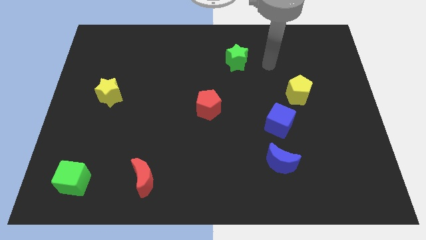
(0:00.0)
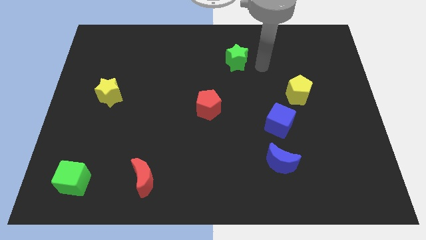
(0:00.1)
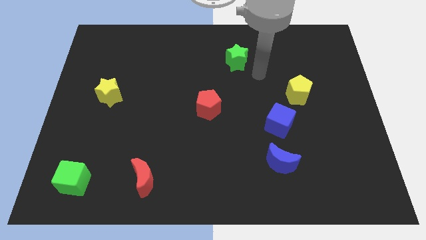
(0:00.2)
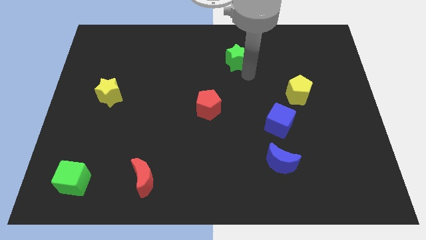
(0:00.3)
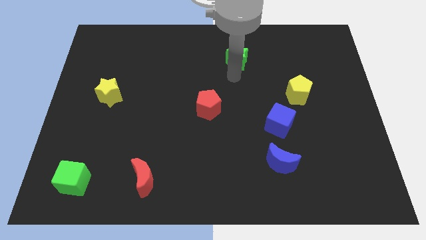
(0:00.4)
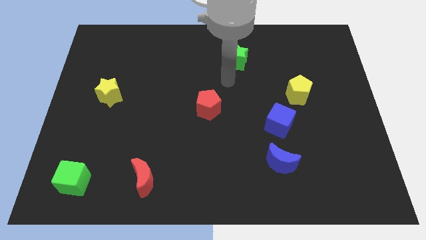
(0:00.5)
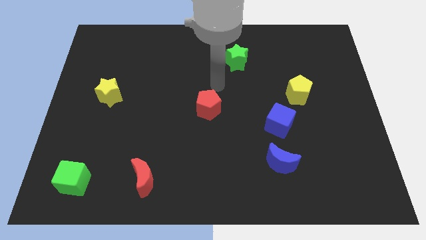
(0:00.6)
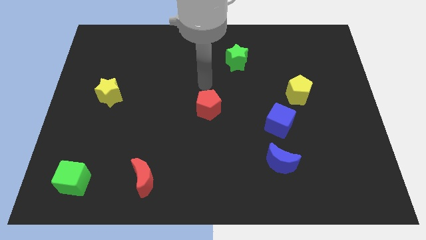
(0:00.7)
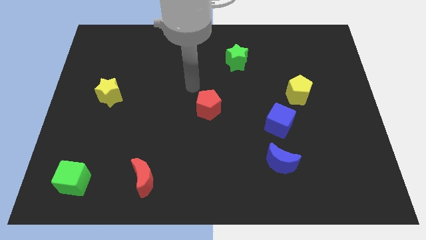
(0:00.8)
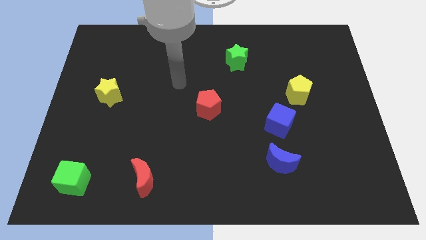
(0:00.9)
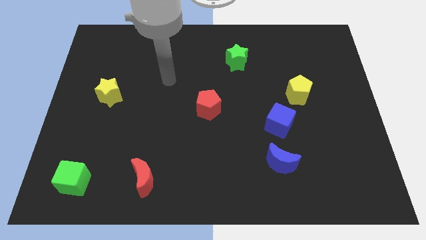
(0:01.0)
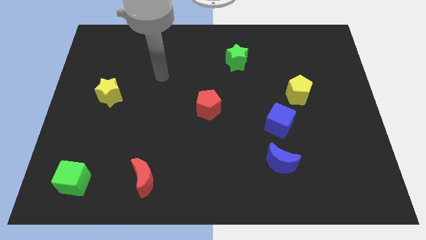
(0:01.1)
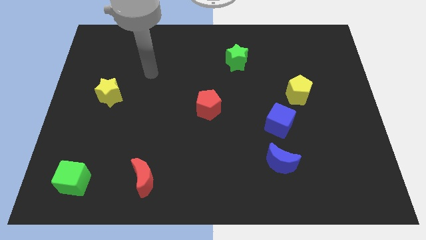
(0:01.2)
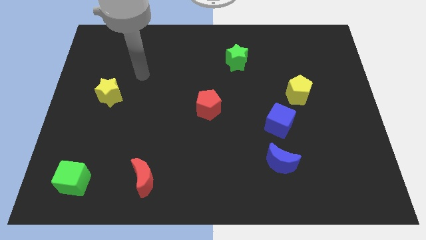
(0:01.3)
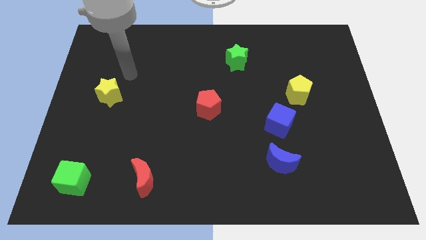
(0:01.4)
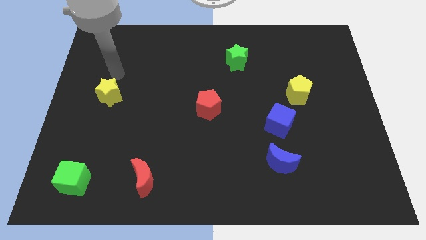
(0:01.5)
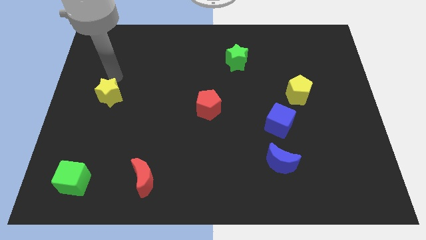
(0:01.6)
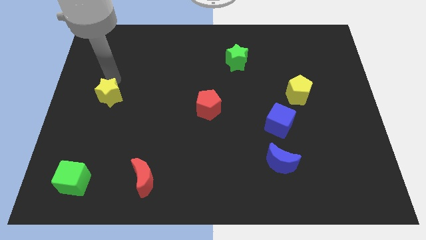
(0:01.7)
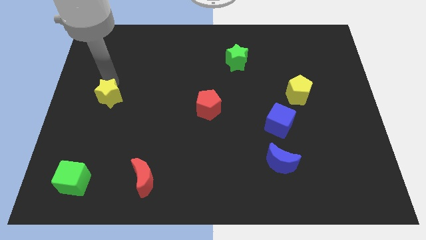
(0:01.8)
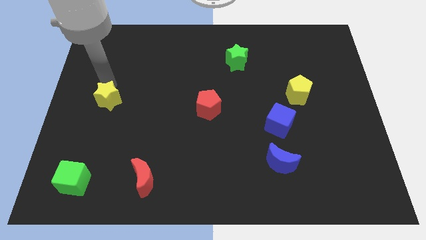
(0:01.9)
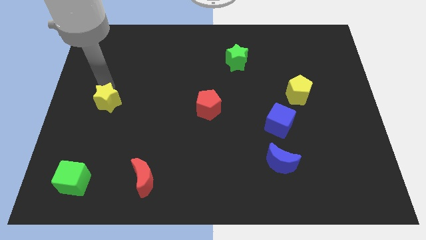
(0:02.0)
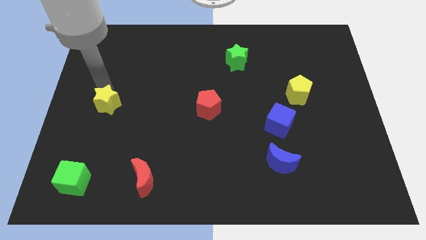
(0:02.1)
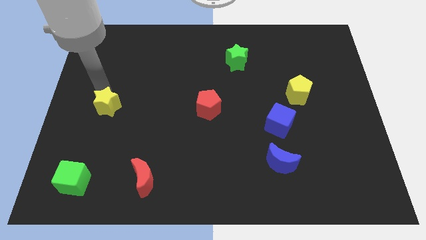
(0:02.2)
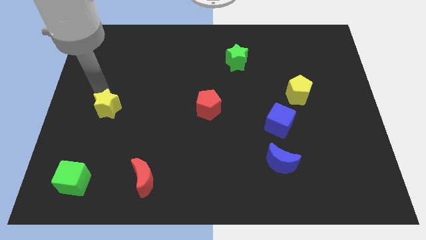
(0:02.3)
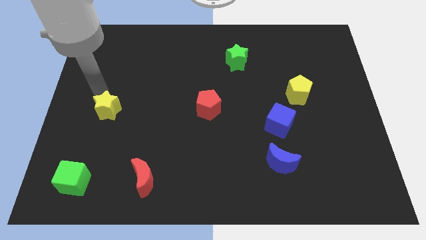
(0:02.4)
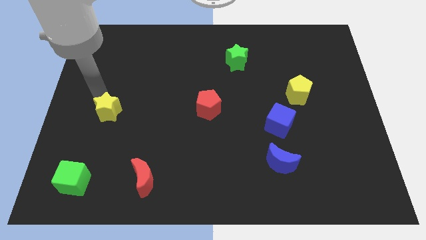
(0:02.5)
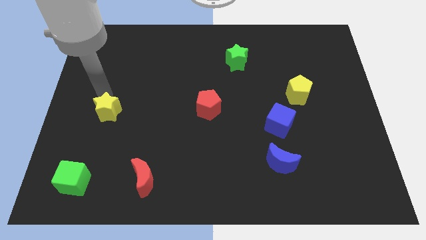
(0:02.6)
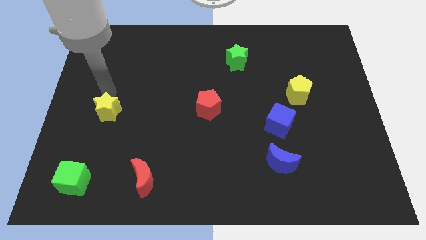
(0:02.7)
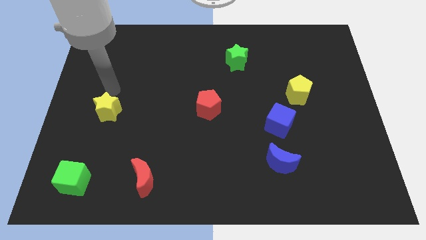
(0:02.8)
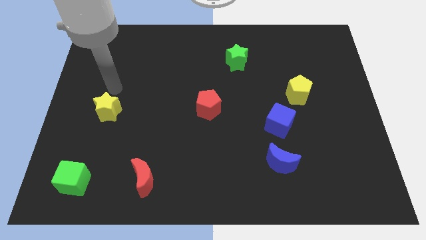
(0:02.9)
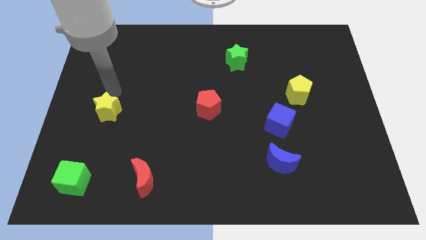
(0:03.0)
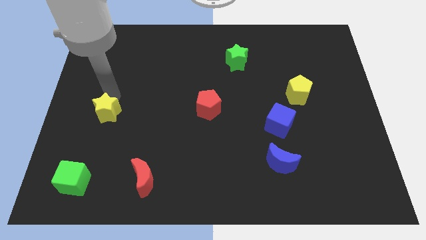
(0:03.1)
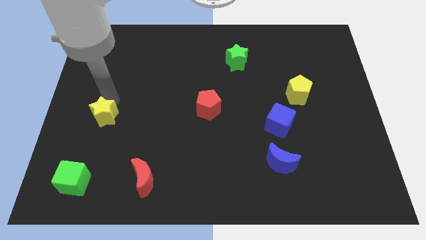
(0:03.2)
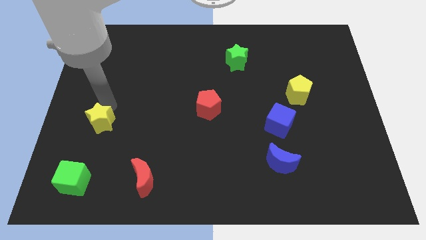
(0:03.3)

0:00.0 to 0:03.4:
slide the yellow star down a little

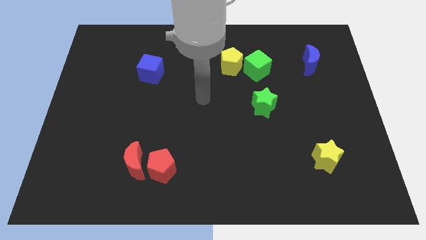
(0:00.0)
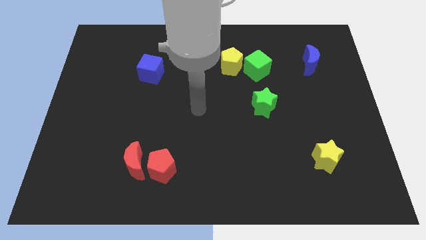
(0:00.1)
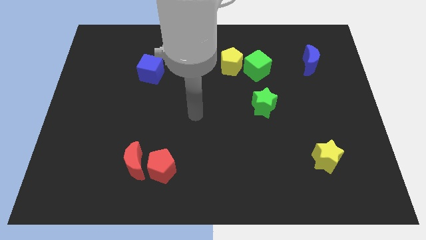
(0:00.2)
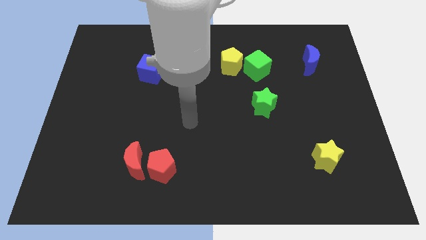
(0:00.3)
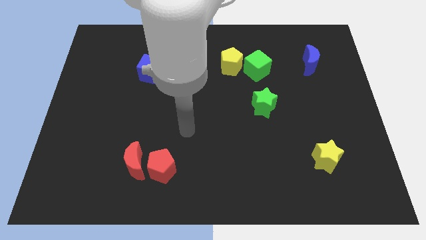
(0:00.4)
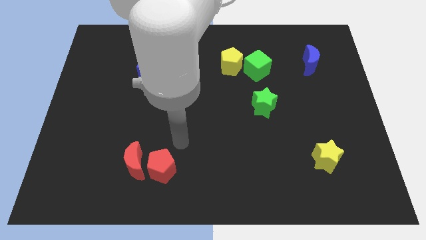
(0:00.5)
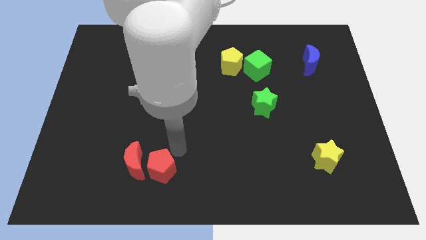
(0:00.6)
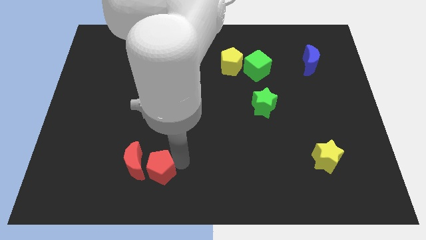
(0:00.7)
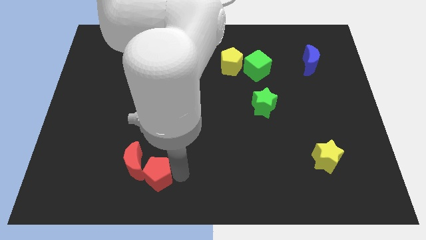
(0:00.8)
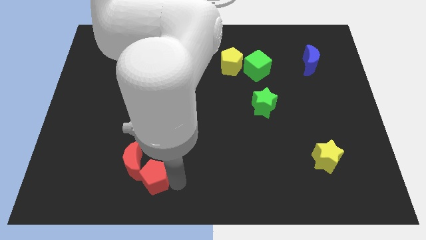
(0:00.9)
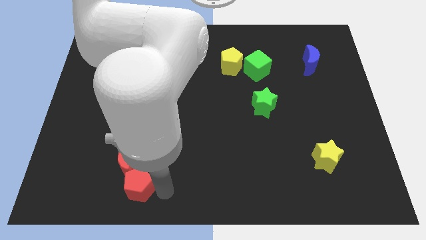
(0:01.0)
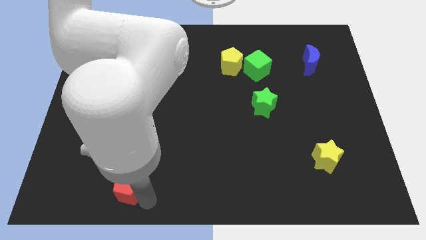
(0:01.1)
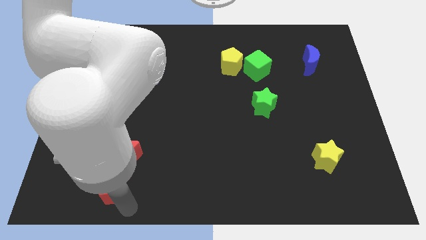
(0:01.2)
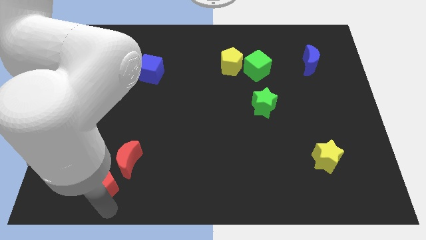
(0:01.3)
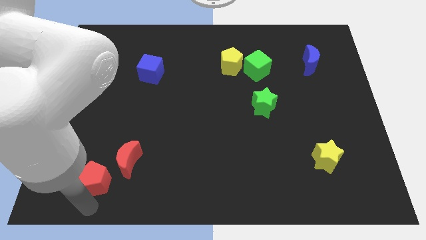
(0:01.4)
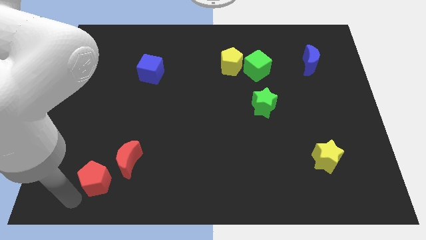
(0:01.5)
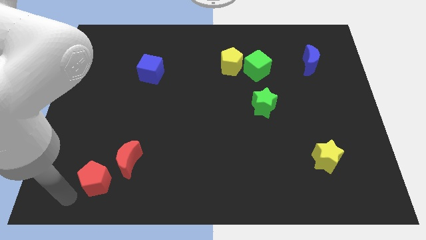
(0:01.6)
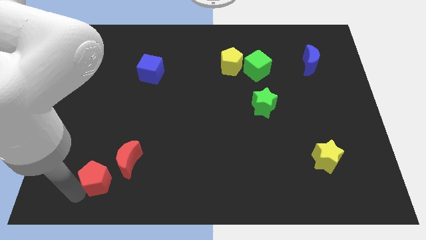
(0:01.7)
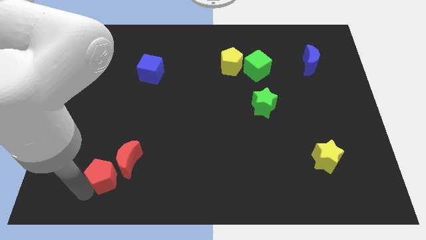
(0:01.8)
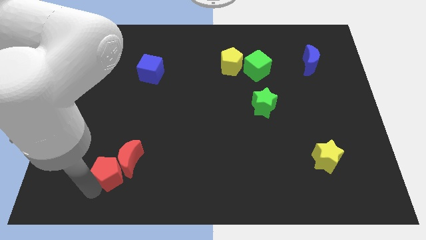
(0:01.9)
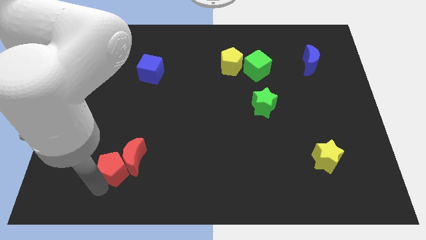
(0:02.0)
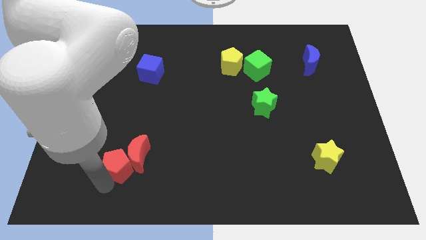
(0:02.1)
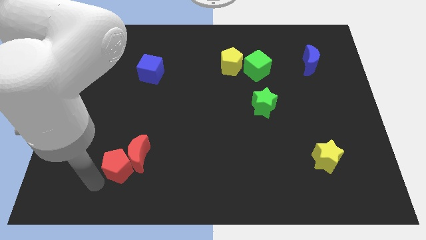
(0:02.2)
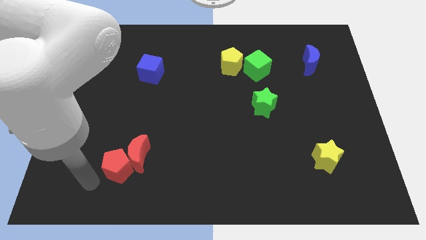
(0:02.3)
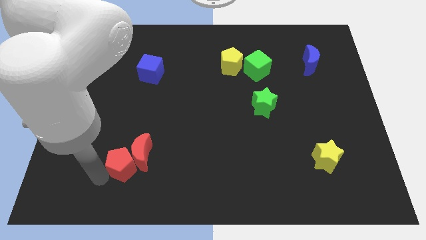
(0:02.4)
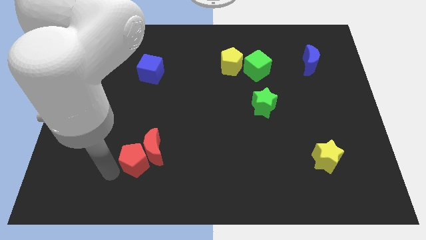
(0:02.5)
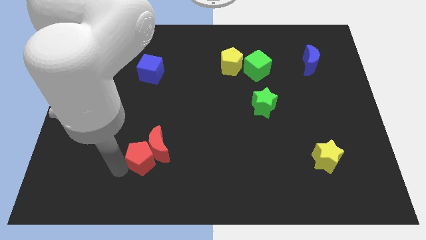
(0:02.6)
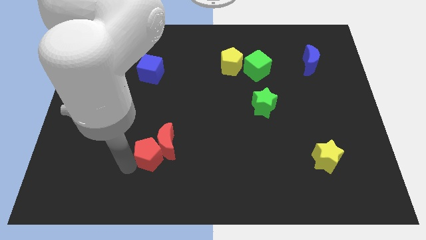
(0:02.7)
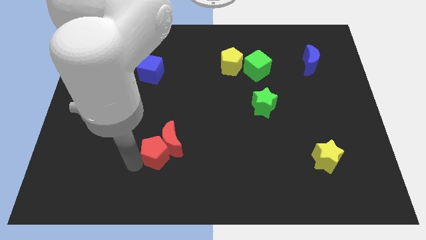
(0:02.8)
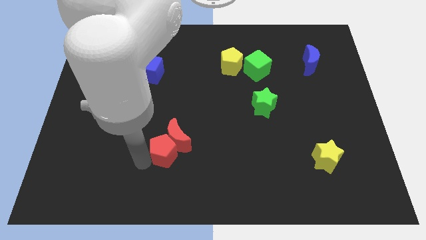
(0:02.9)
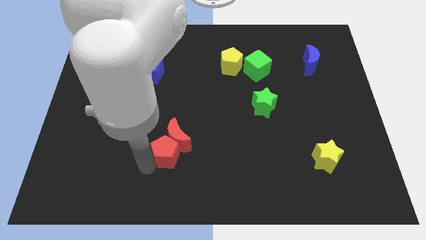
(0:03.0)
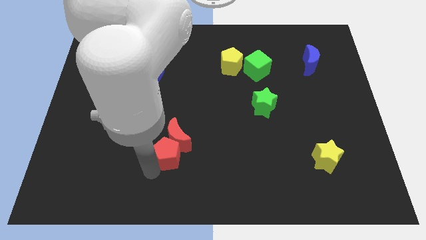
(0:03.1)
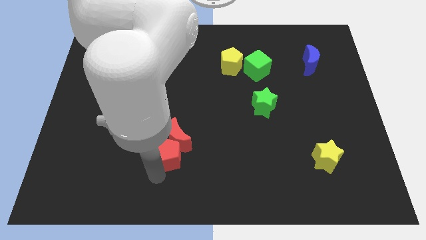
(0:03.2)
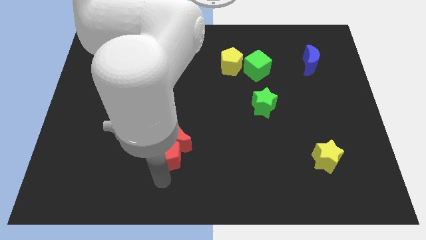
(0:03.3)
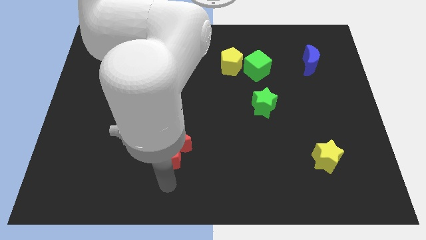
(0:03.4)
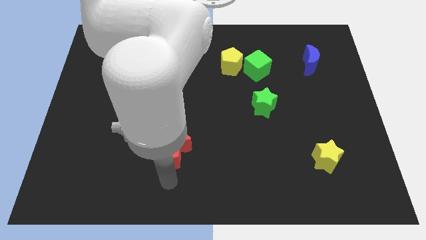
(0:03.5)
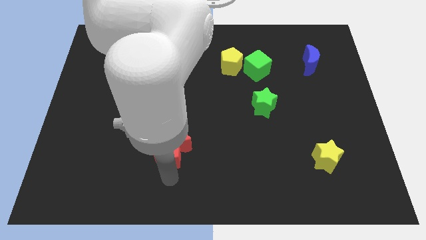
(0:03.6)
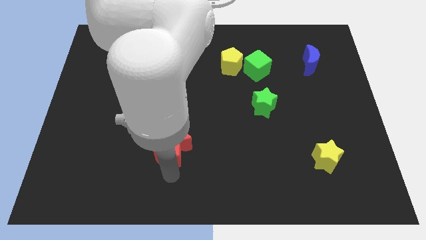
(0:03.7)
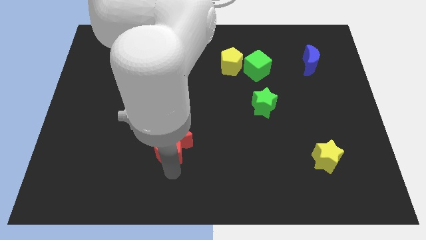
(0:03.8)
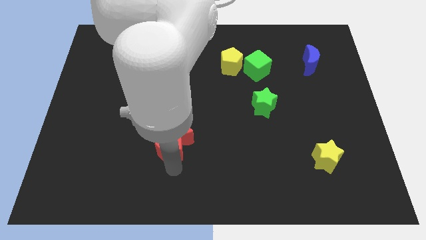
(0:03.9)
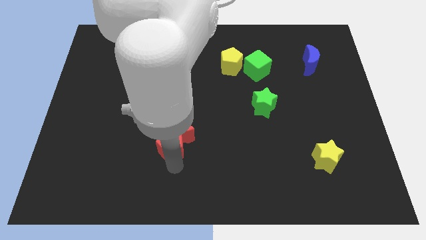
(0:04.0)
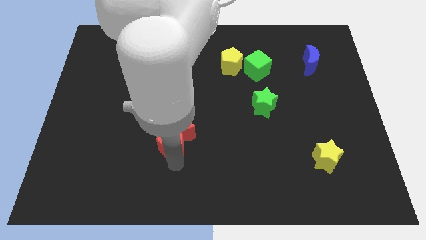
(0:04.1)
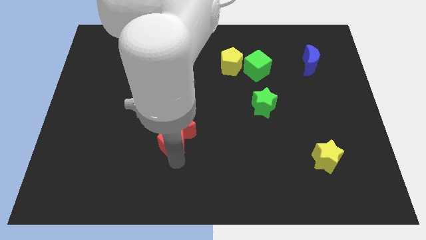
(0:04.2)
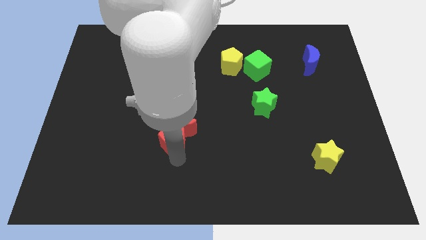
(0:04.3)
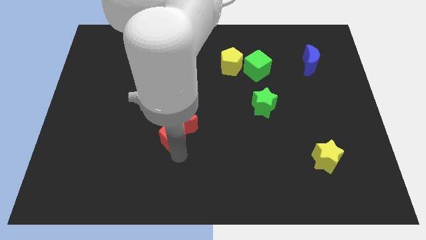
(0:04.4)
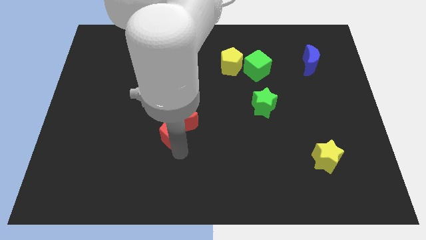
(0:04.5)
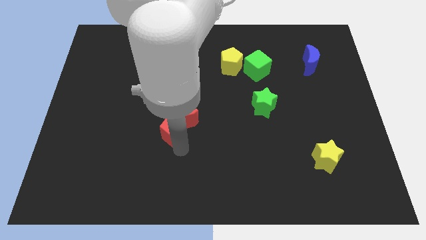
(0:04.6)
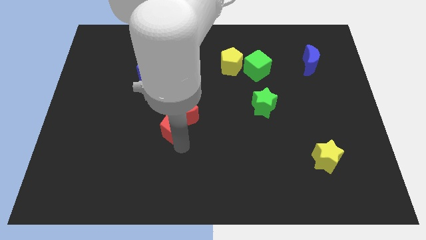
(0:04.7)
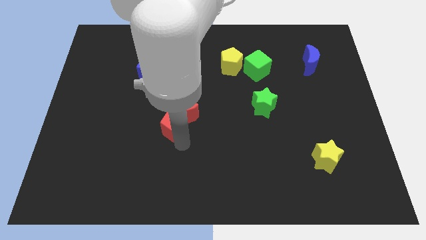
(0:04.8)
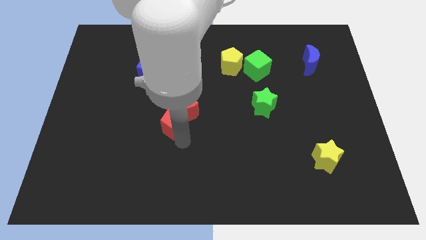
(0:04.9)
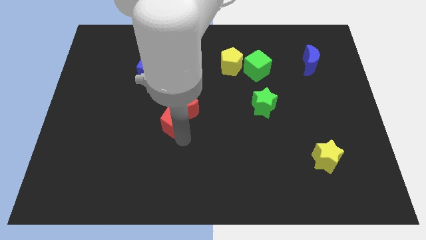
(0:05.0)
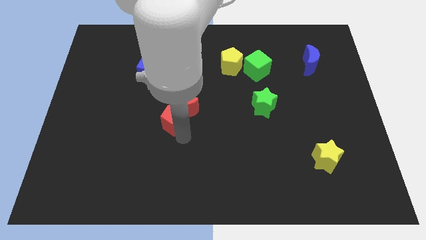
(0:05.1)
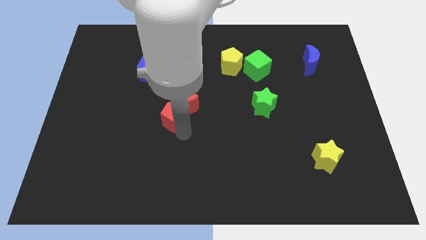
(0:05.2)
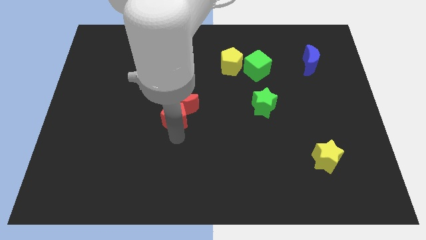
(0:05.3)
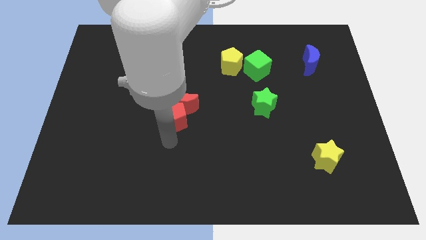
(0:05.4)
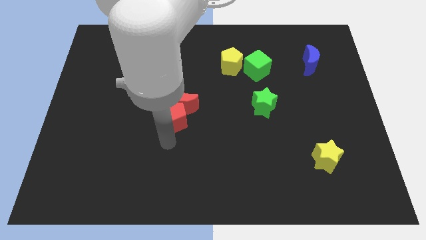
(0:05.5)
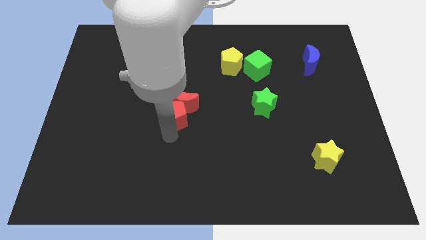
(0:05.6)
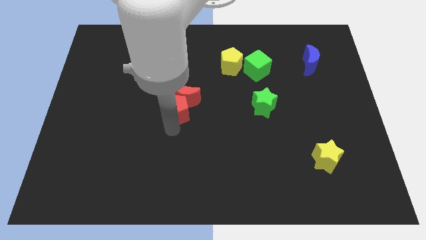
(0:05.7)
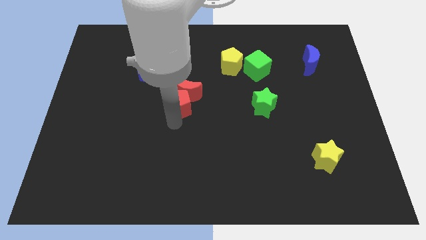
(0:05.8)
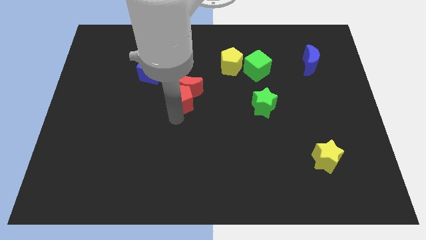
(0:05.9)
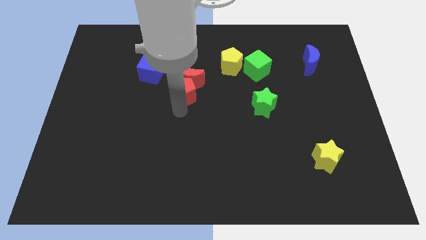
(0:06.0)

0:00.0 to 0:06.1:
move the red pentagon up
